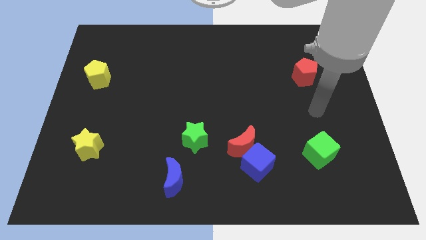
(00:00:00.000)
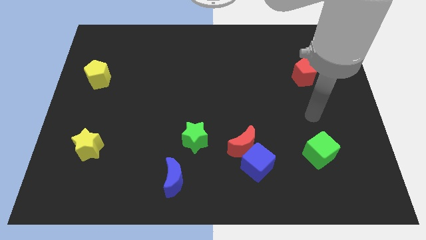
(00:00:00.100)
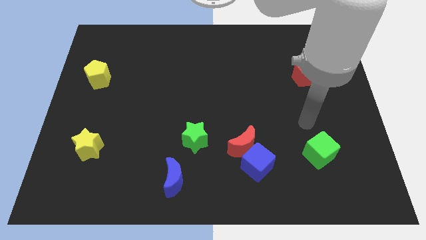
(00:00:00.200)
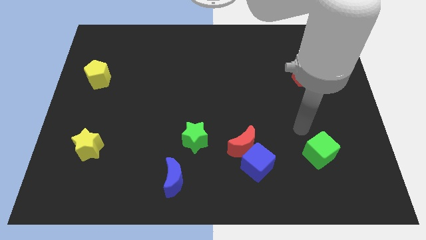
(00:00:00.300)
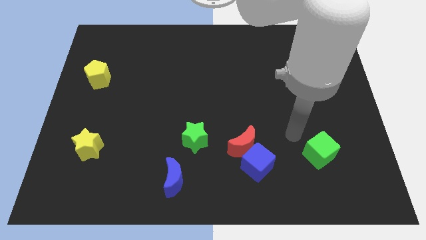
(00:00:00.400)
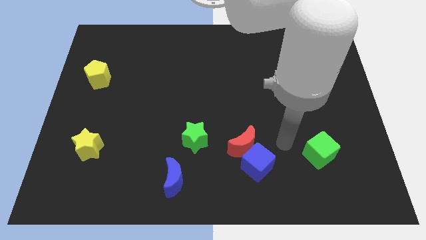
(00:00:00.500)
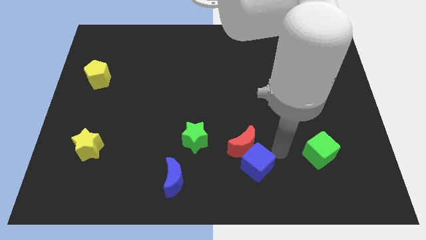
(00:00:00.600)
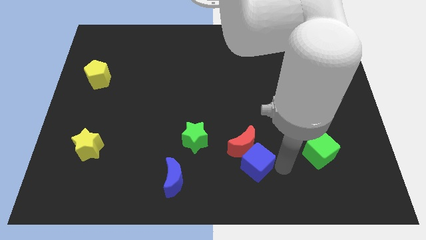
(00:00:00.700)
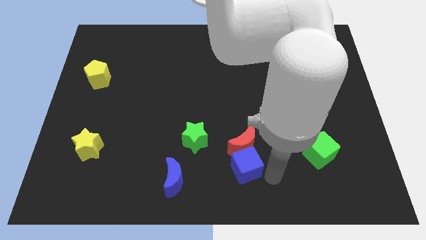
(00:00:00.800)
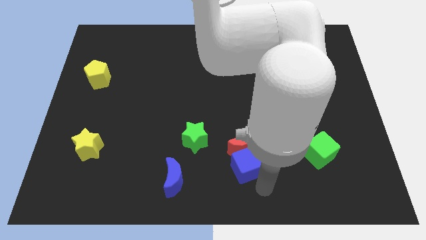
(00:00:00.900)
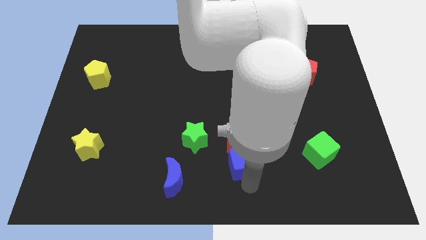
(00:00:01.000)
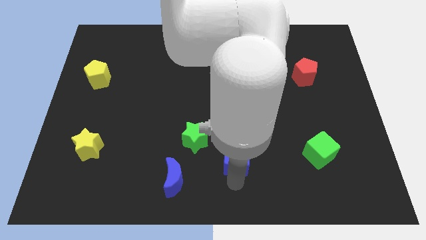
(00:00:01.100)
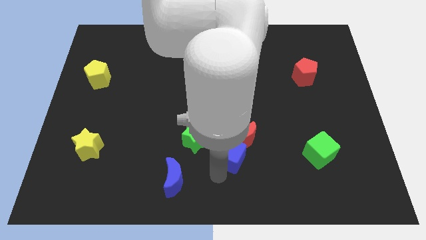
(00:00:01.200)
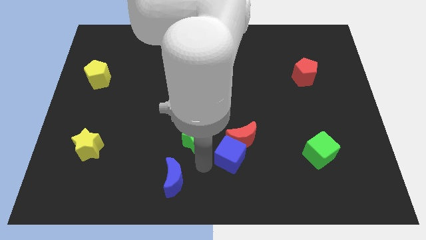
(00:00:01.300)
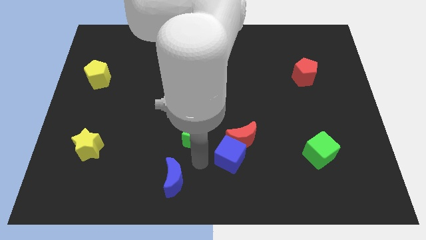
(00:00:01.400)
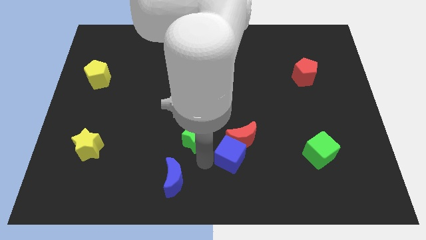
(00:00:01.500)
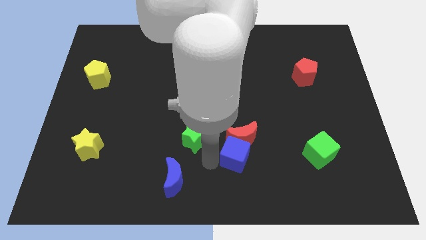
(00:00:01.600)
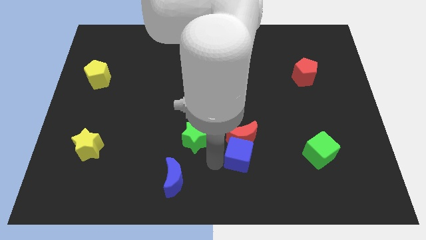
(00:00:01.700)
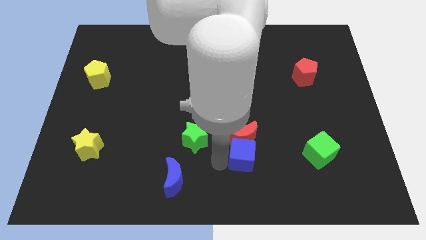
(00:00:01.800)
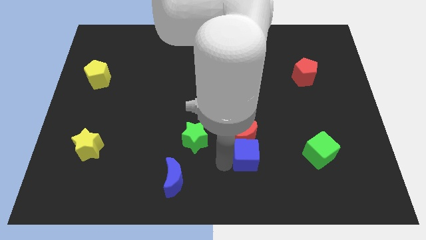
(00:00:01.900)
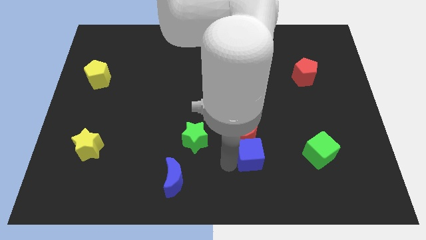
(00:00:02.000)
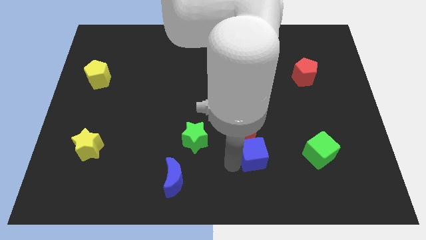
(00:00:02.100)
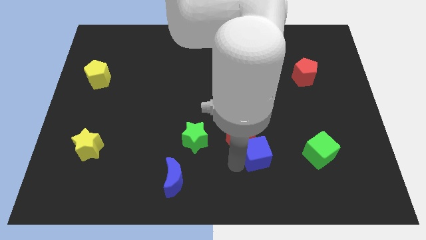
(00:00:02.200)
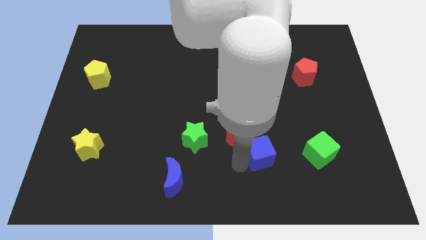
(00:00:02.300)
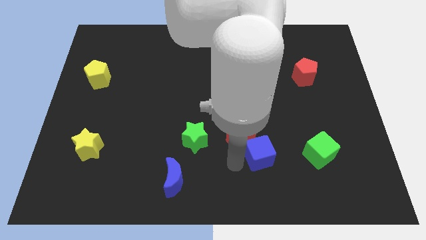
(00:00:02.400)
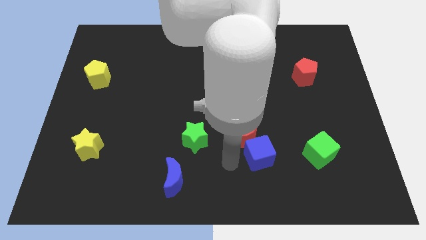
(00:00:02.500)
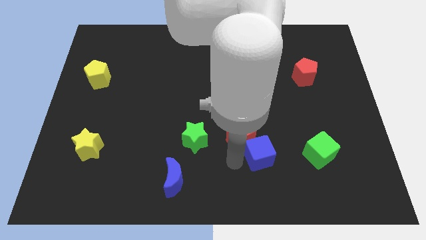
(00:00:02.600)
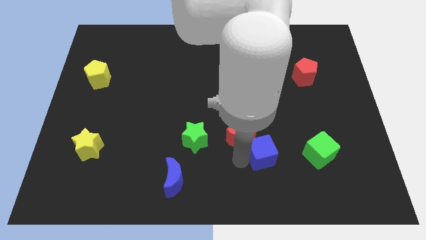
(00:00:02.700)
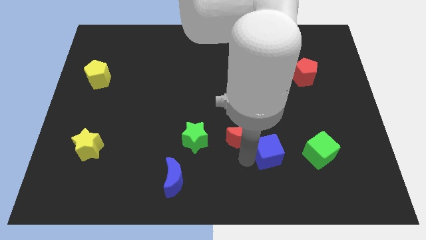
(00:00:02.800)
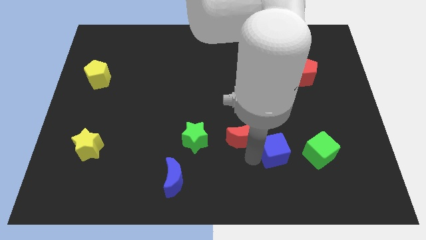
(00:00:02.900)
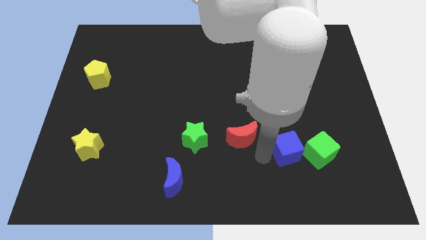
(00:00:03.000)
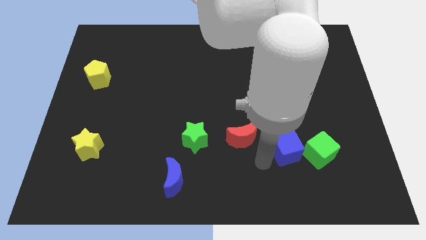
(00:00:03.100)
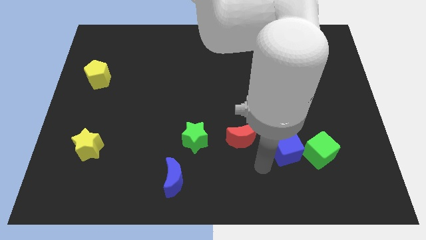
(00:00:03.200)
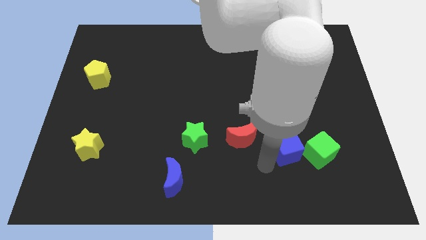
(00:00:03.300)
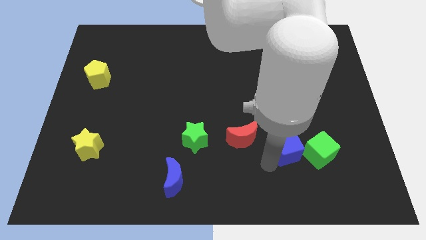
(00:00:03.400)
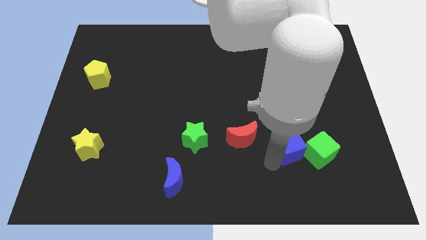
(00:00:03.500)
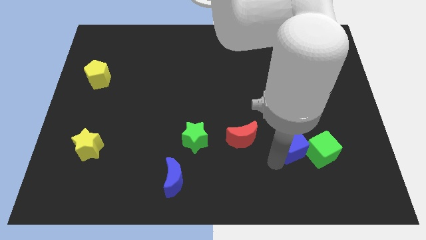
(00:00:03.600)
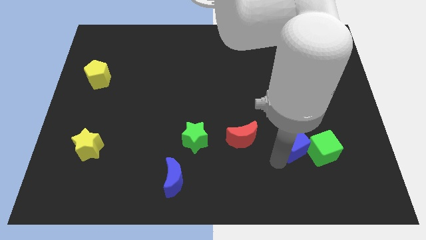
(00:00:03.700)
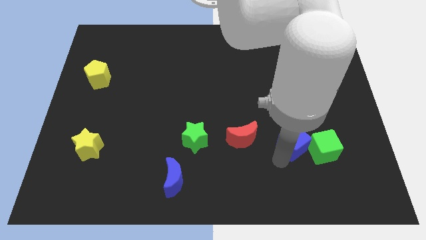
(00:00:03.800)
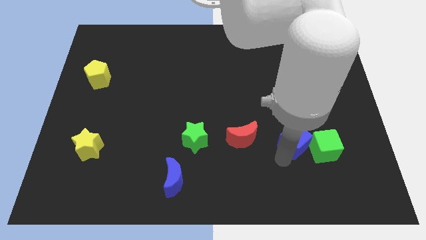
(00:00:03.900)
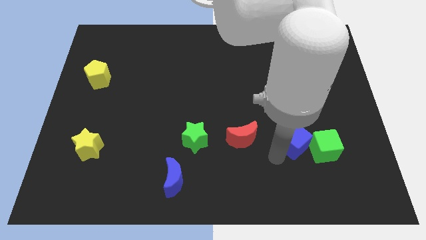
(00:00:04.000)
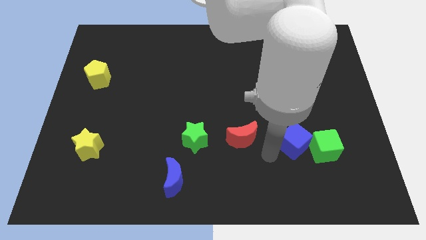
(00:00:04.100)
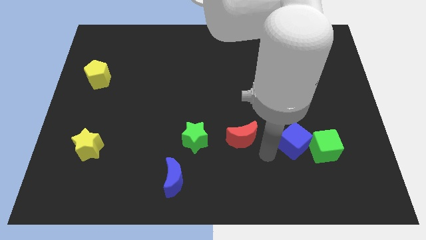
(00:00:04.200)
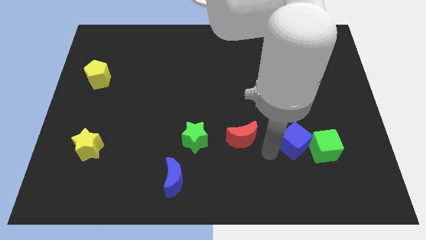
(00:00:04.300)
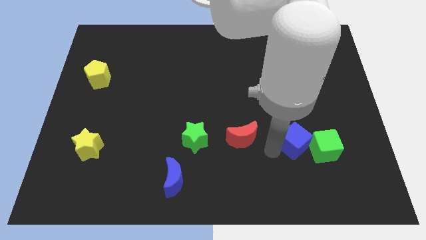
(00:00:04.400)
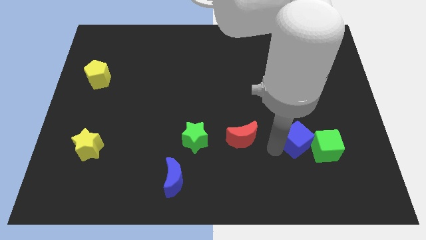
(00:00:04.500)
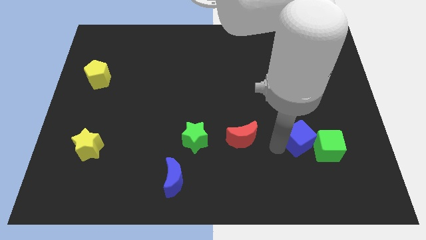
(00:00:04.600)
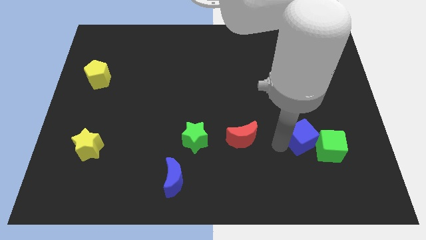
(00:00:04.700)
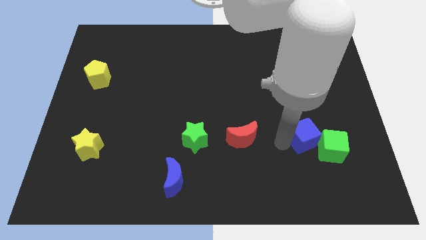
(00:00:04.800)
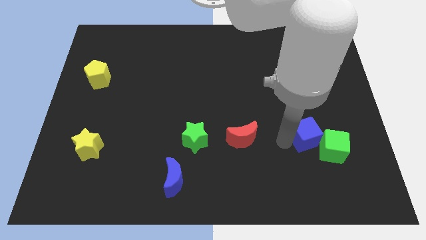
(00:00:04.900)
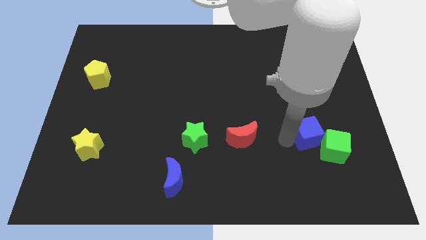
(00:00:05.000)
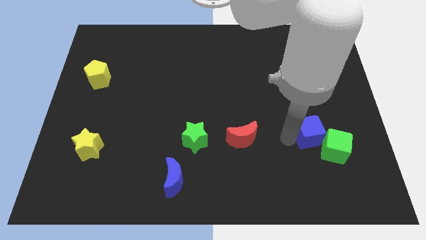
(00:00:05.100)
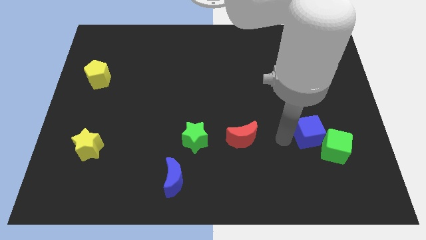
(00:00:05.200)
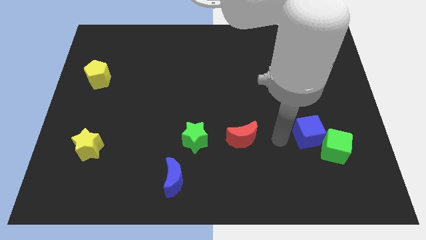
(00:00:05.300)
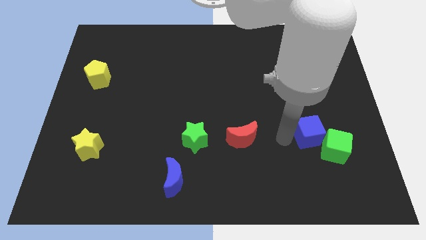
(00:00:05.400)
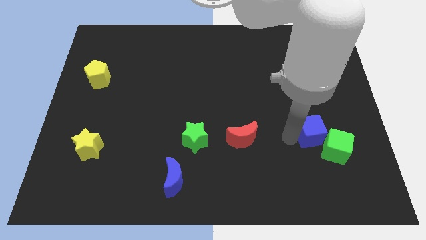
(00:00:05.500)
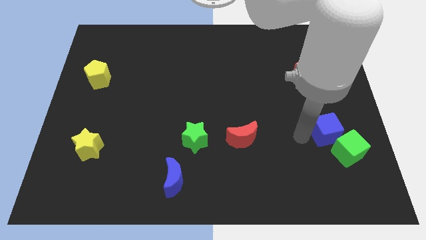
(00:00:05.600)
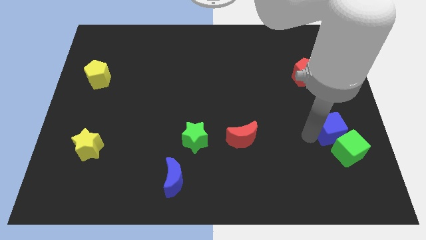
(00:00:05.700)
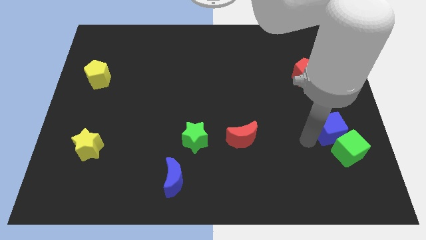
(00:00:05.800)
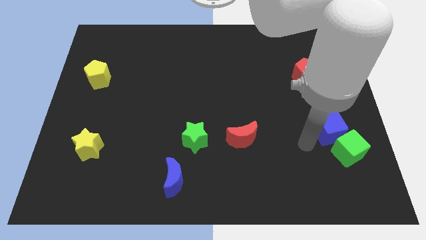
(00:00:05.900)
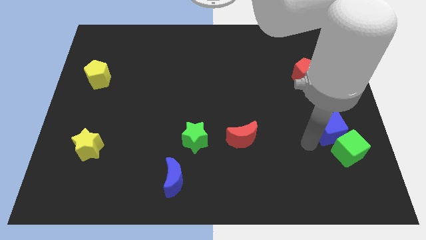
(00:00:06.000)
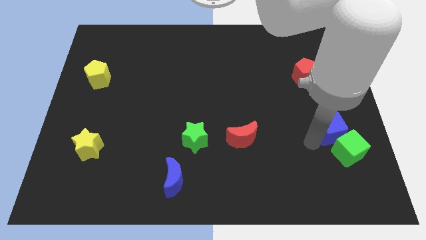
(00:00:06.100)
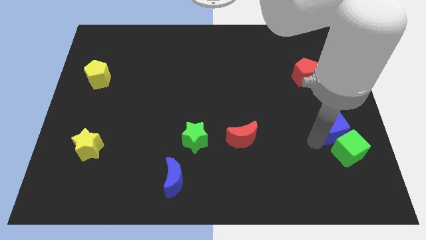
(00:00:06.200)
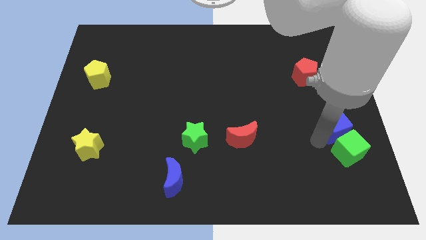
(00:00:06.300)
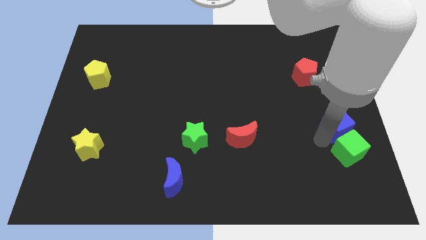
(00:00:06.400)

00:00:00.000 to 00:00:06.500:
push the blue cube to the right side
